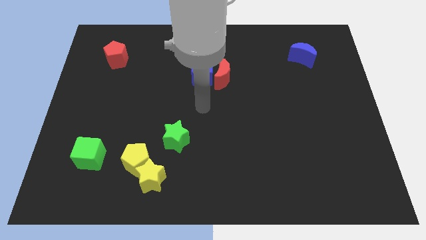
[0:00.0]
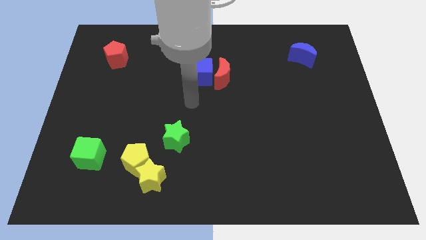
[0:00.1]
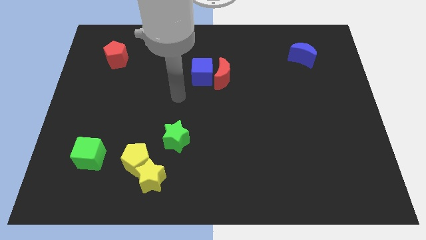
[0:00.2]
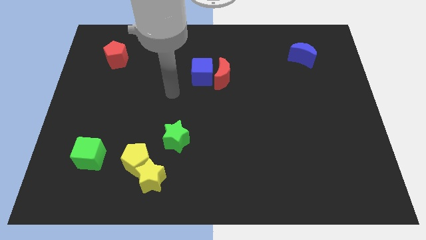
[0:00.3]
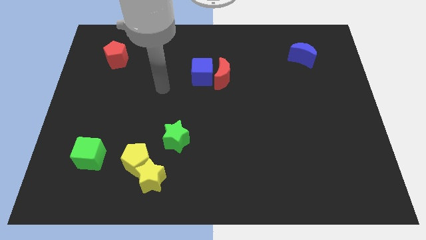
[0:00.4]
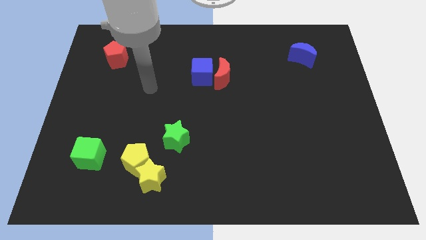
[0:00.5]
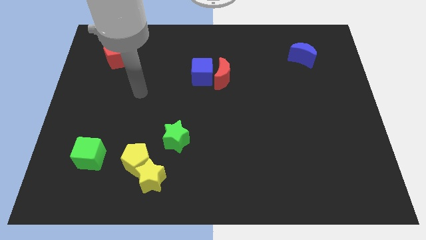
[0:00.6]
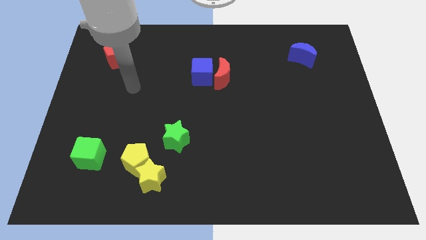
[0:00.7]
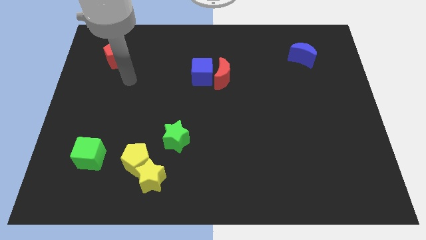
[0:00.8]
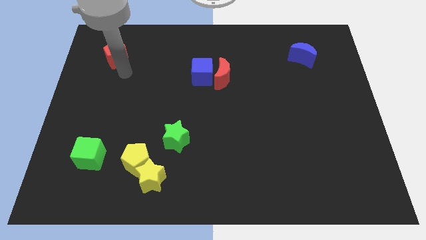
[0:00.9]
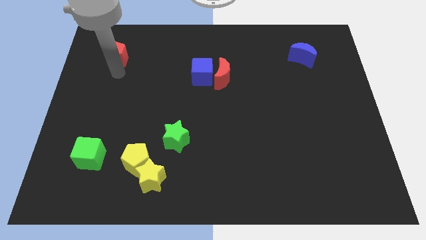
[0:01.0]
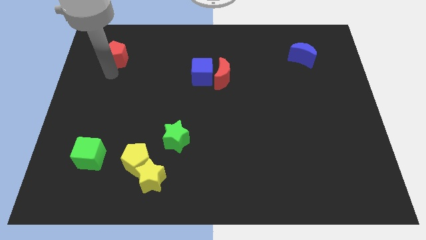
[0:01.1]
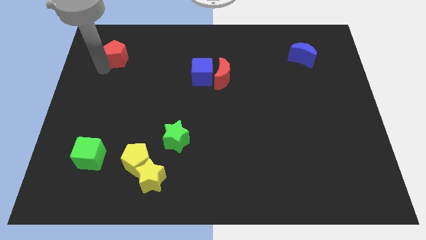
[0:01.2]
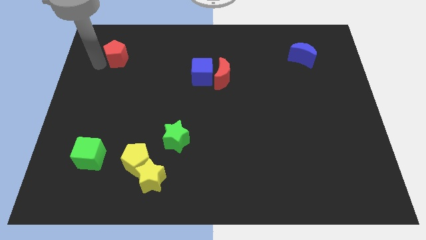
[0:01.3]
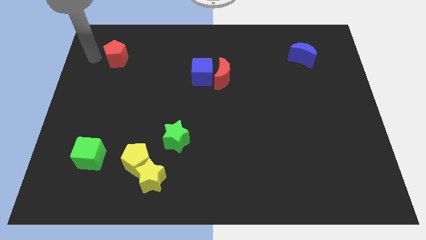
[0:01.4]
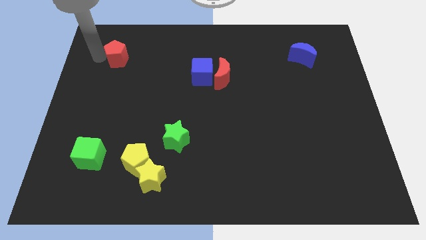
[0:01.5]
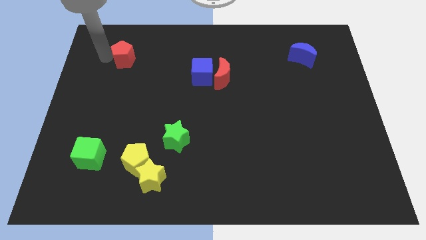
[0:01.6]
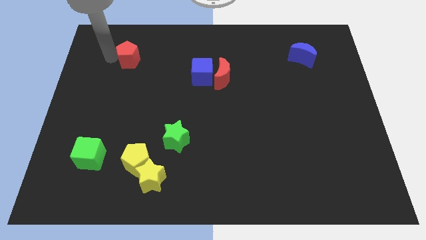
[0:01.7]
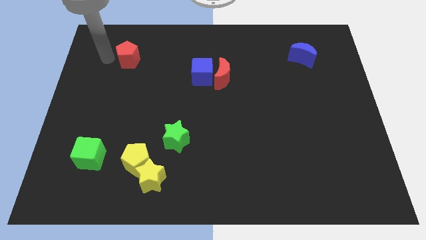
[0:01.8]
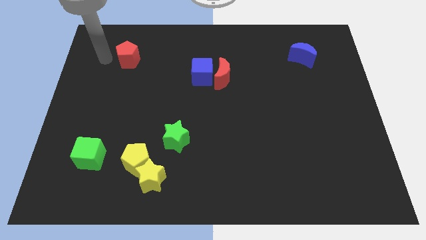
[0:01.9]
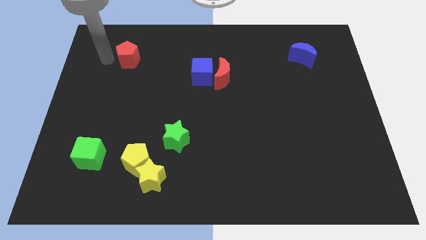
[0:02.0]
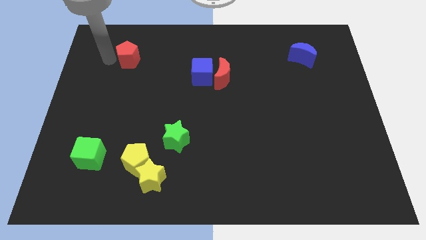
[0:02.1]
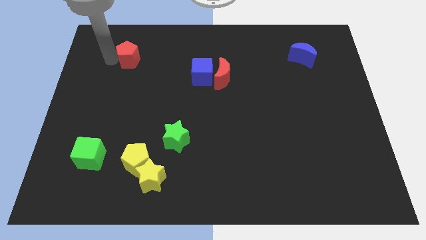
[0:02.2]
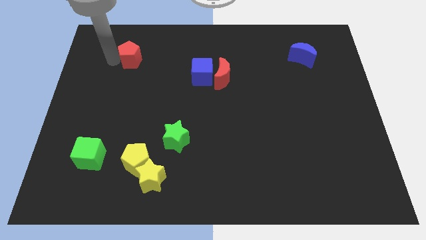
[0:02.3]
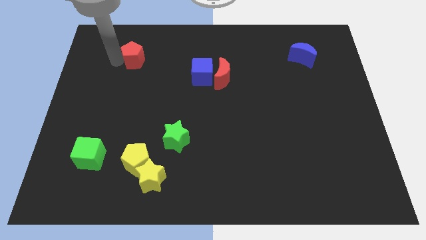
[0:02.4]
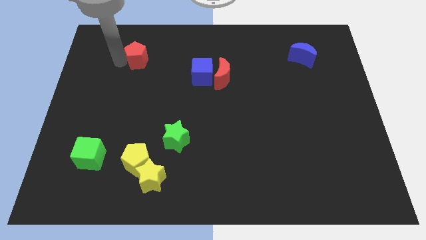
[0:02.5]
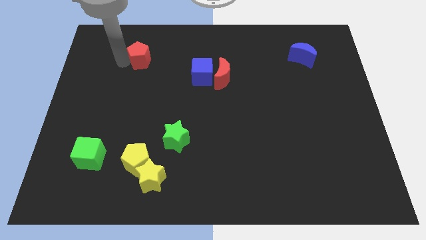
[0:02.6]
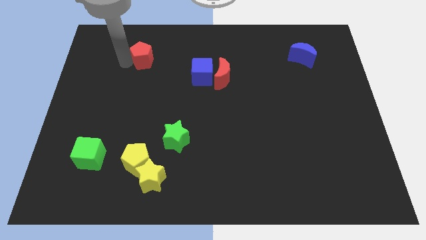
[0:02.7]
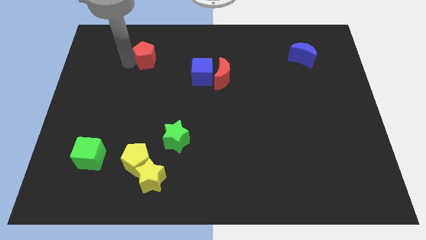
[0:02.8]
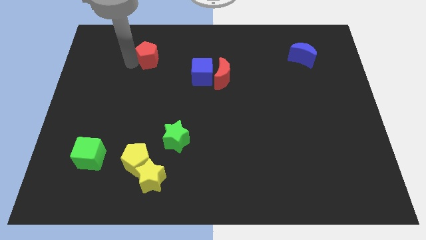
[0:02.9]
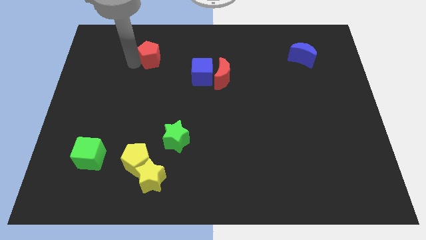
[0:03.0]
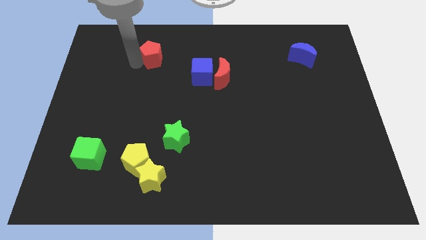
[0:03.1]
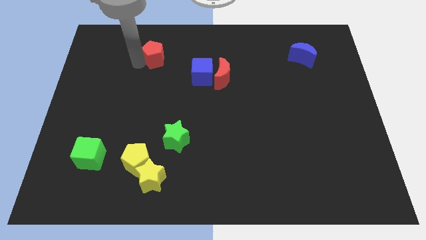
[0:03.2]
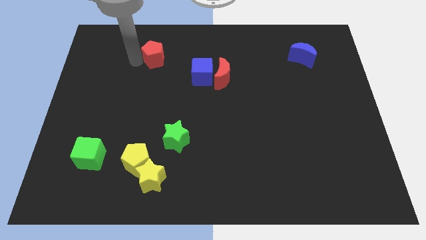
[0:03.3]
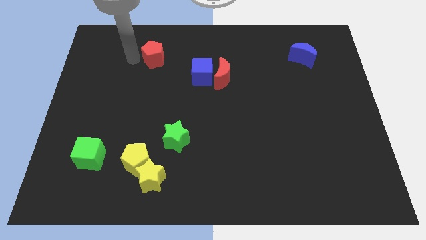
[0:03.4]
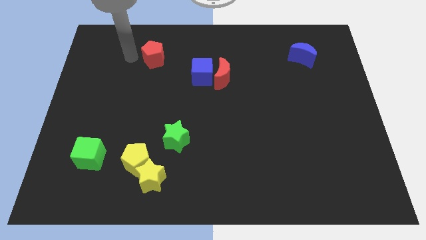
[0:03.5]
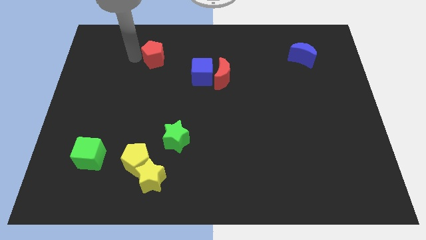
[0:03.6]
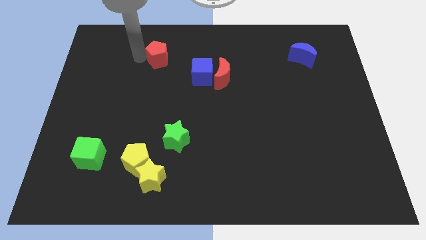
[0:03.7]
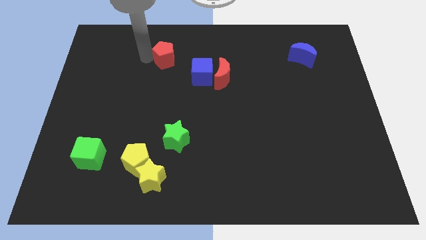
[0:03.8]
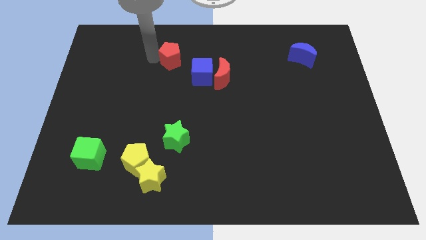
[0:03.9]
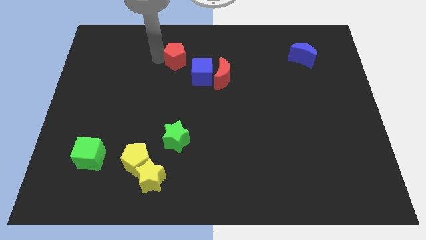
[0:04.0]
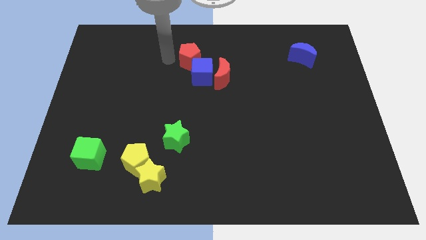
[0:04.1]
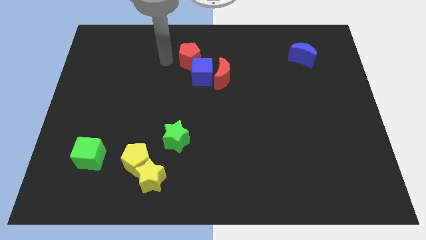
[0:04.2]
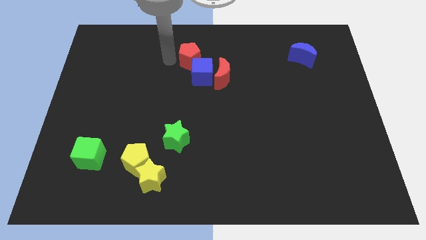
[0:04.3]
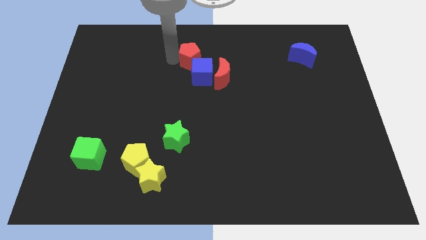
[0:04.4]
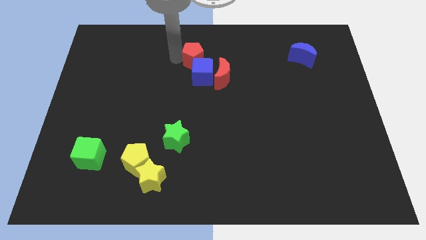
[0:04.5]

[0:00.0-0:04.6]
move the red pentagon to the right

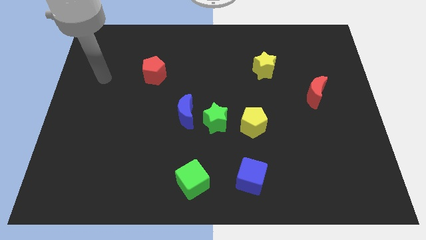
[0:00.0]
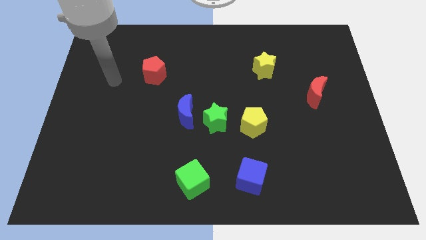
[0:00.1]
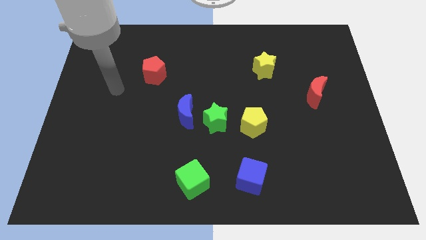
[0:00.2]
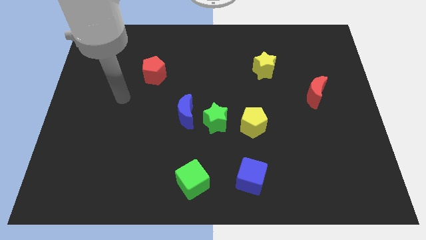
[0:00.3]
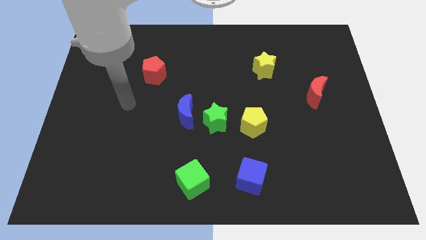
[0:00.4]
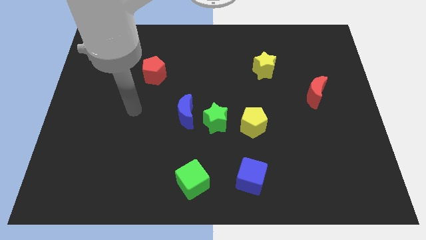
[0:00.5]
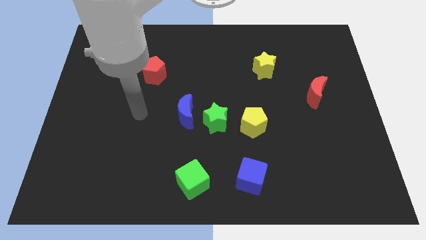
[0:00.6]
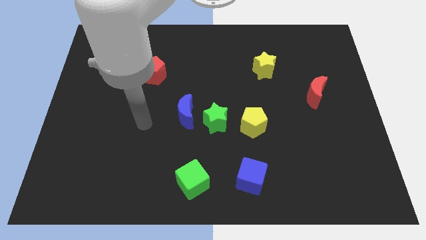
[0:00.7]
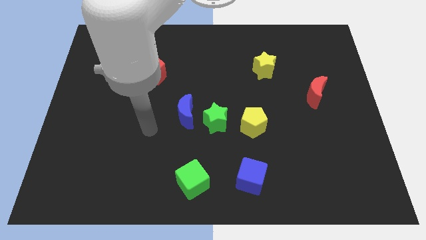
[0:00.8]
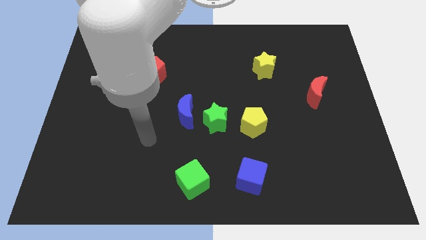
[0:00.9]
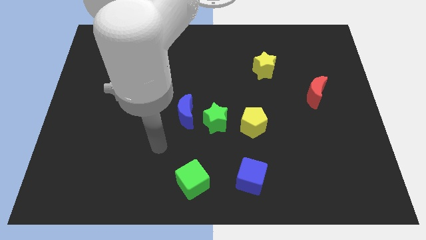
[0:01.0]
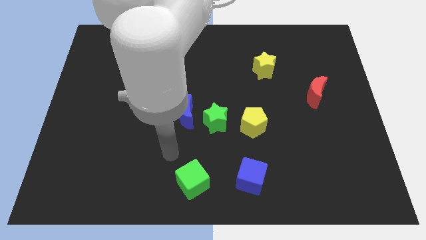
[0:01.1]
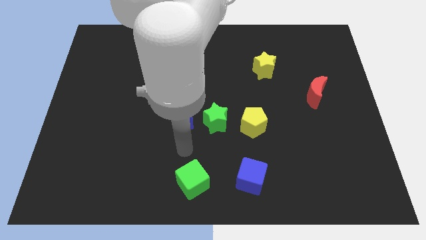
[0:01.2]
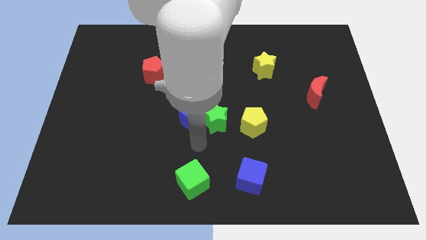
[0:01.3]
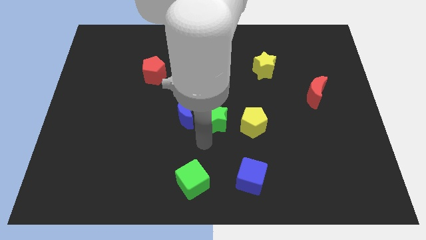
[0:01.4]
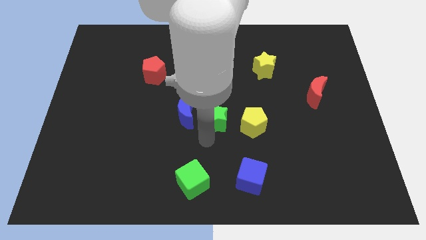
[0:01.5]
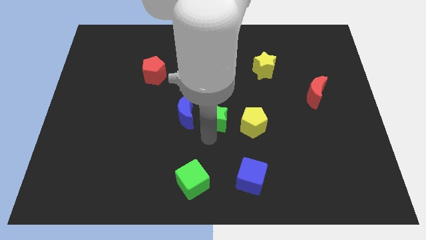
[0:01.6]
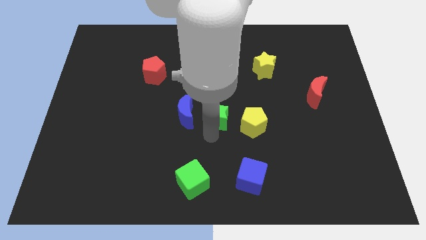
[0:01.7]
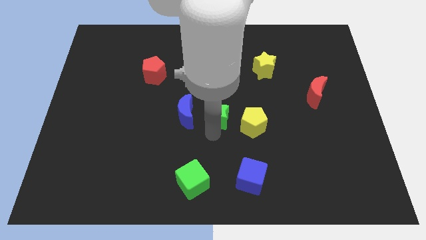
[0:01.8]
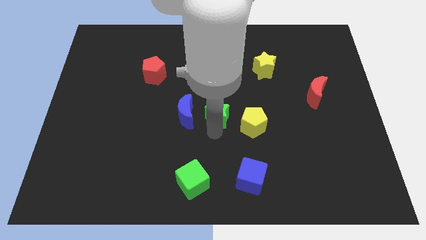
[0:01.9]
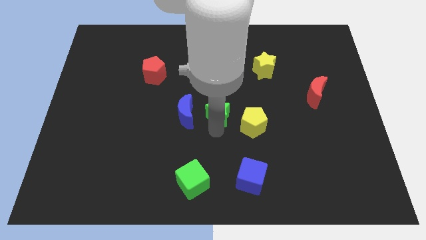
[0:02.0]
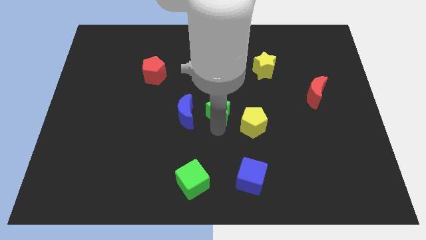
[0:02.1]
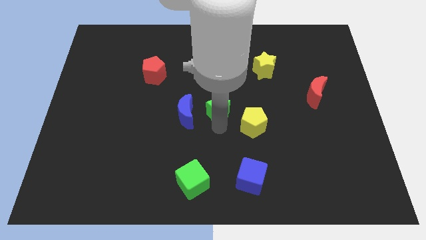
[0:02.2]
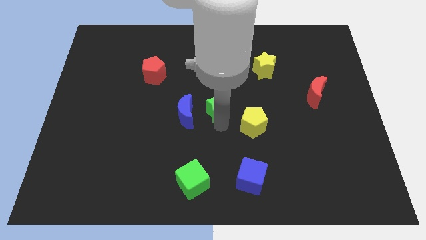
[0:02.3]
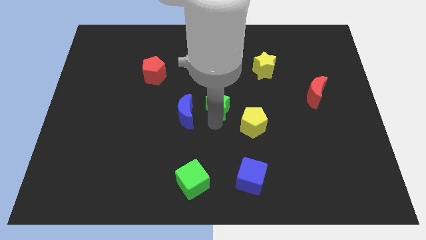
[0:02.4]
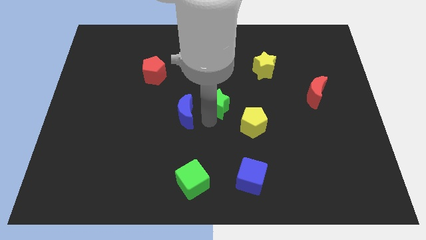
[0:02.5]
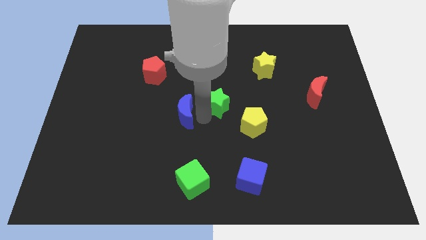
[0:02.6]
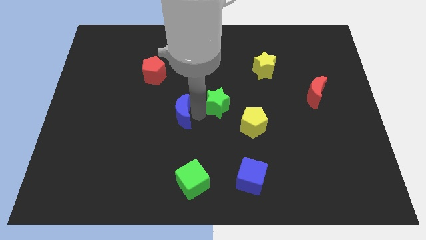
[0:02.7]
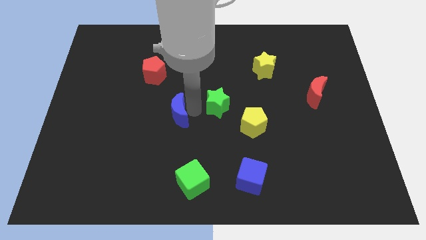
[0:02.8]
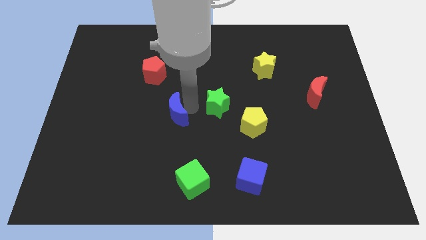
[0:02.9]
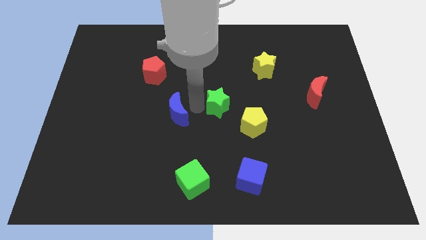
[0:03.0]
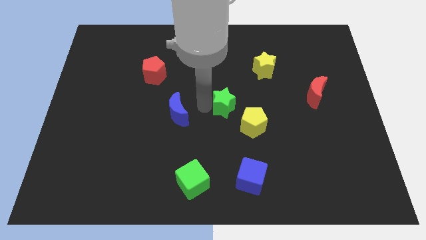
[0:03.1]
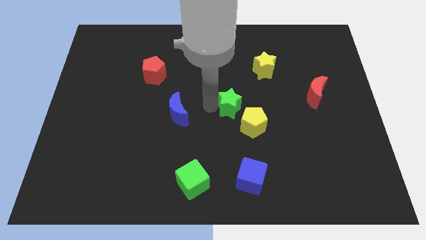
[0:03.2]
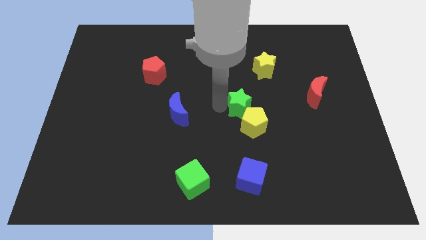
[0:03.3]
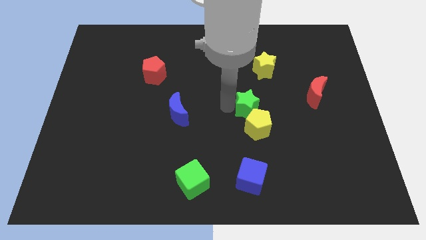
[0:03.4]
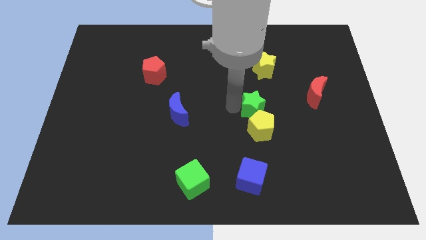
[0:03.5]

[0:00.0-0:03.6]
slightly slide the green star to the right

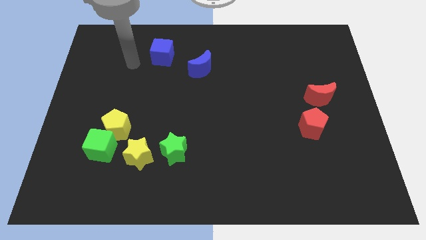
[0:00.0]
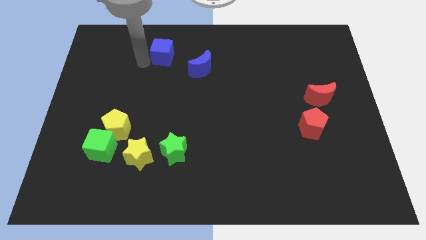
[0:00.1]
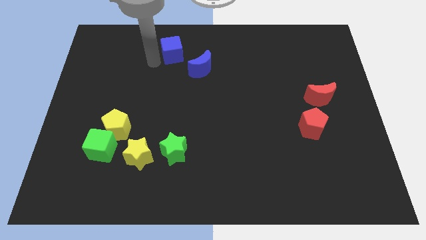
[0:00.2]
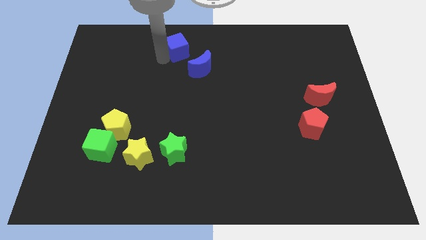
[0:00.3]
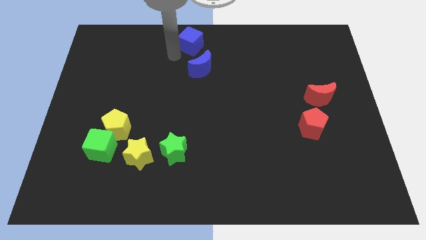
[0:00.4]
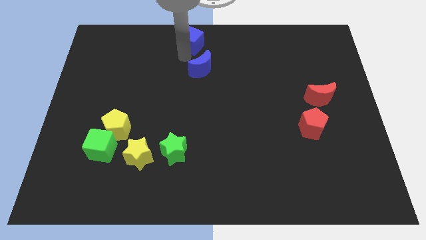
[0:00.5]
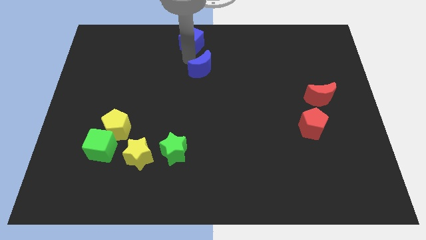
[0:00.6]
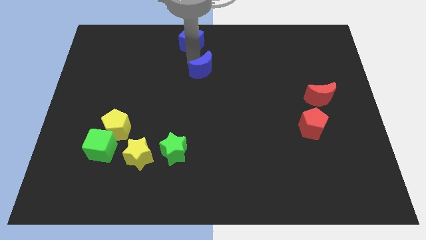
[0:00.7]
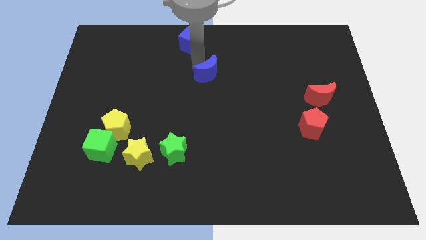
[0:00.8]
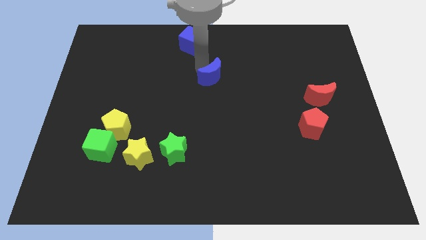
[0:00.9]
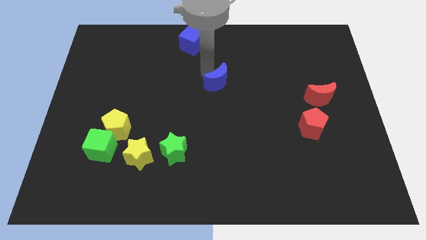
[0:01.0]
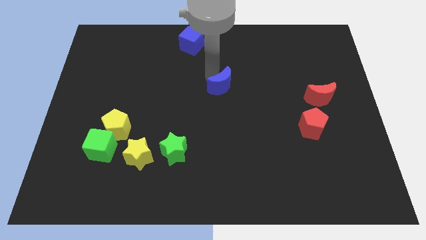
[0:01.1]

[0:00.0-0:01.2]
slightly push the blue moon down and to the right diagonally
